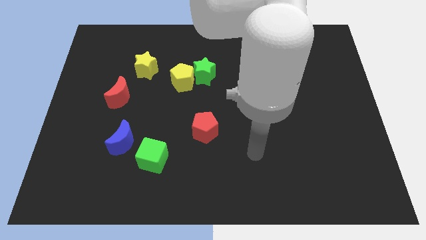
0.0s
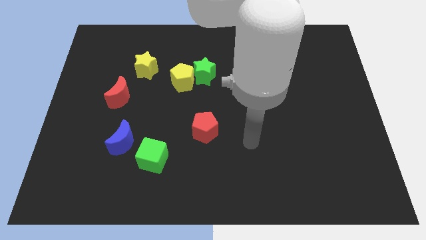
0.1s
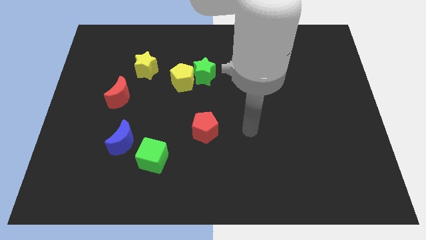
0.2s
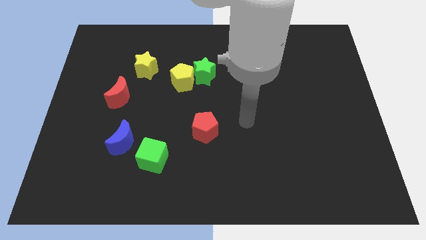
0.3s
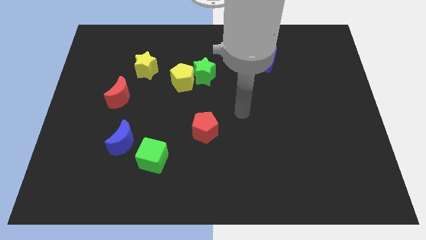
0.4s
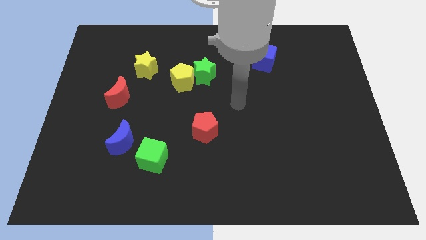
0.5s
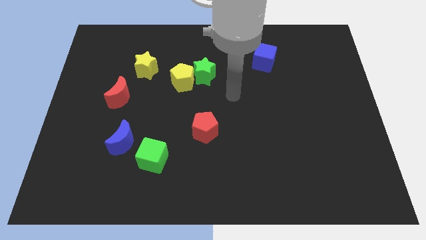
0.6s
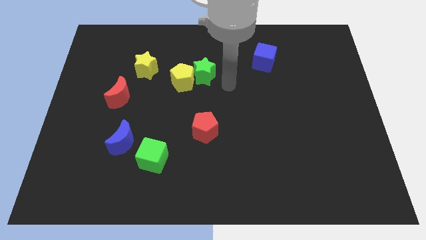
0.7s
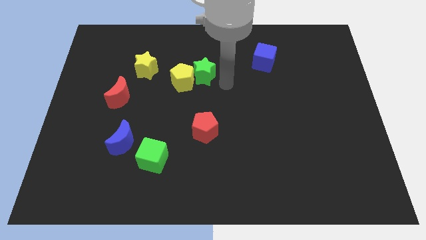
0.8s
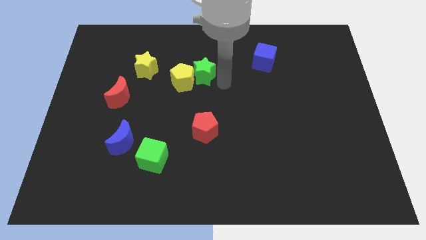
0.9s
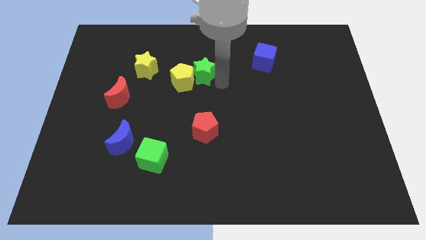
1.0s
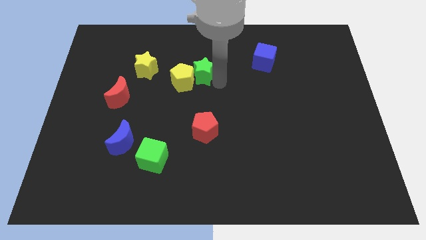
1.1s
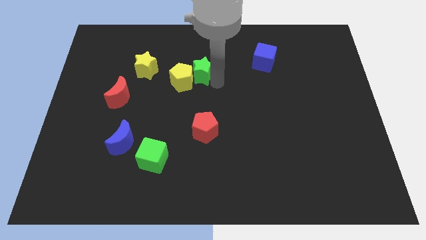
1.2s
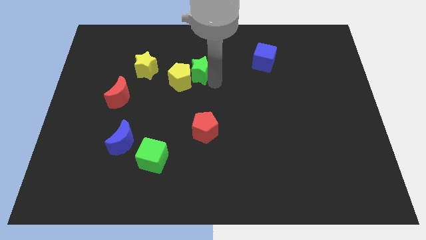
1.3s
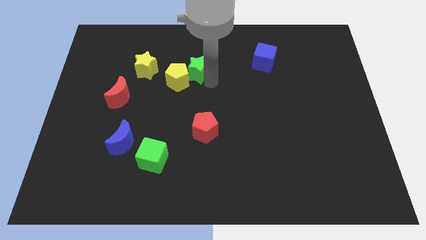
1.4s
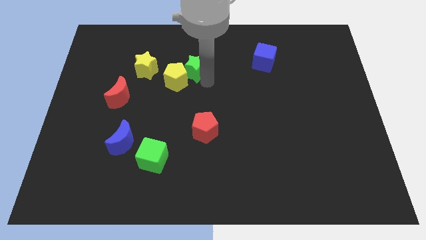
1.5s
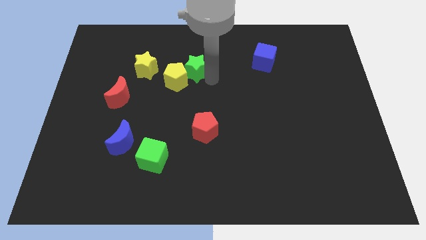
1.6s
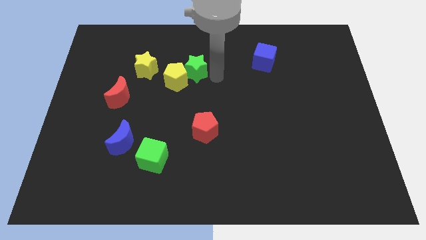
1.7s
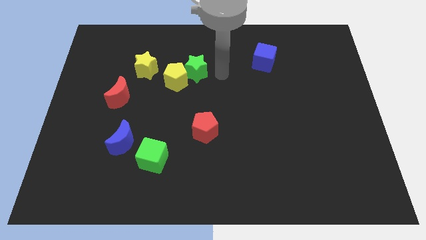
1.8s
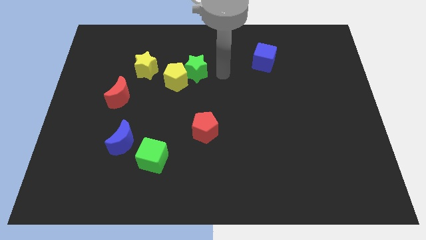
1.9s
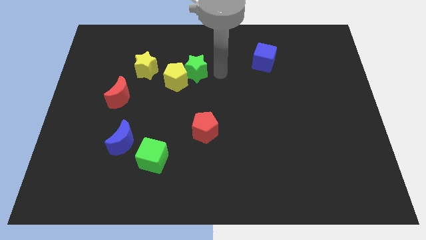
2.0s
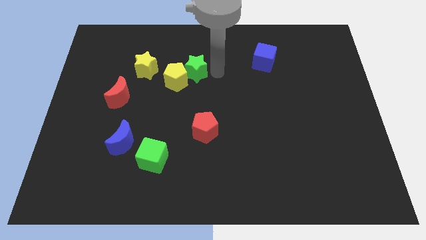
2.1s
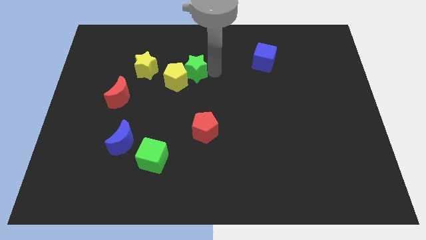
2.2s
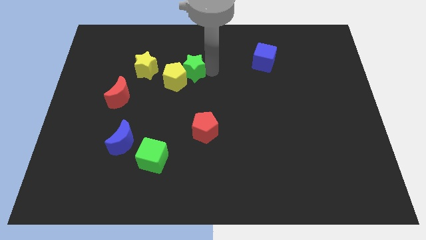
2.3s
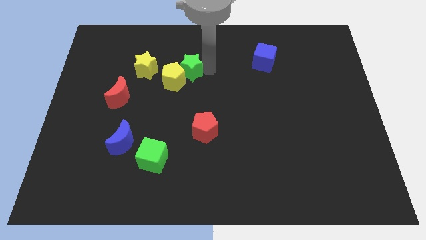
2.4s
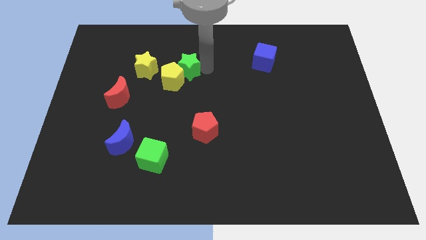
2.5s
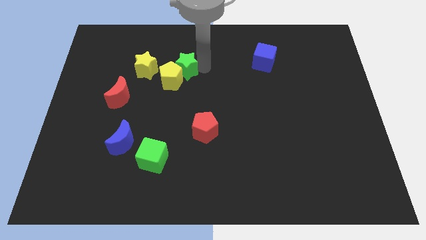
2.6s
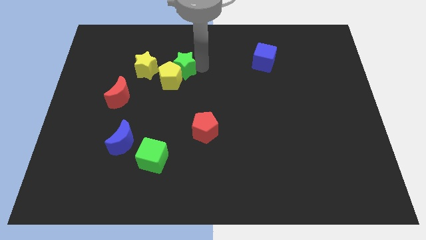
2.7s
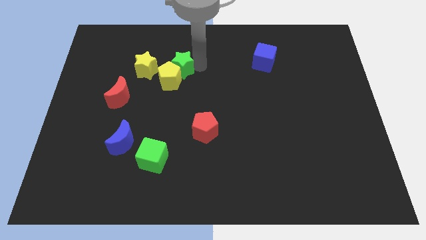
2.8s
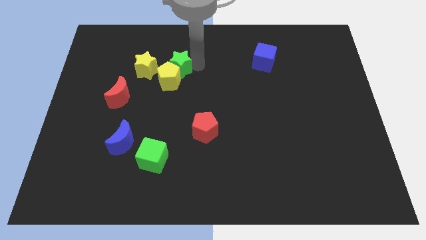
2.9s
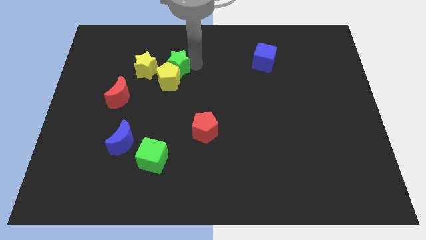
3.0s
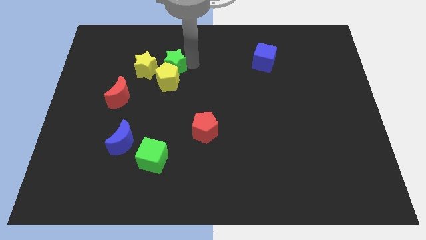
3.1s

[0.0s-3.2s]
push the green star left a little

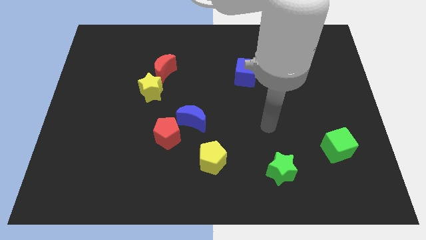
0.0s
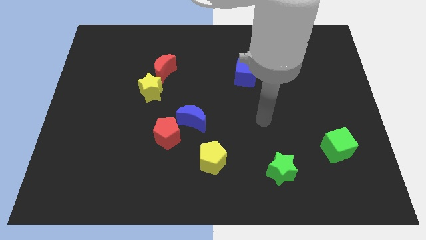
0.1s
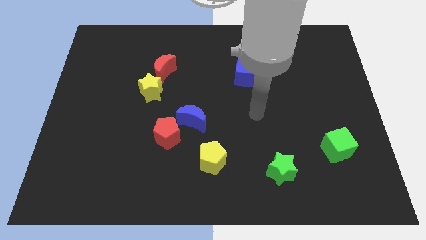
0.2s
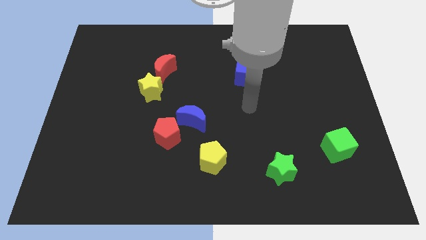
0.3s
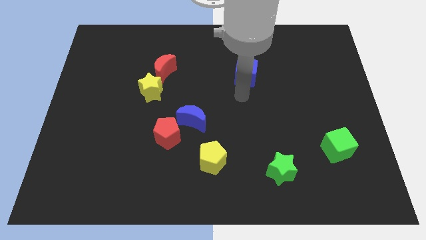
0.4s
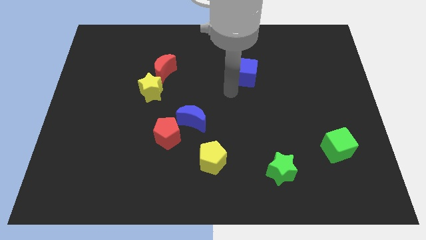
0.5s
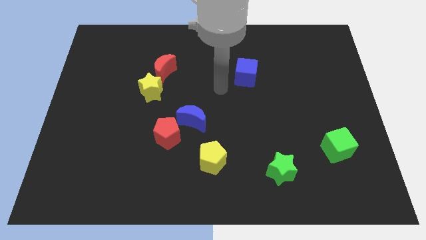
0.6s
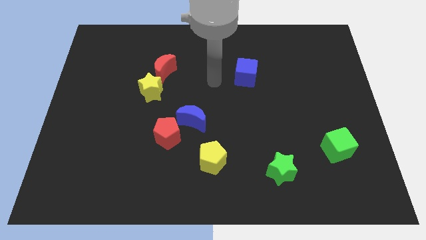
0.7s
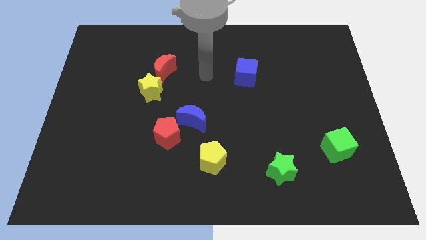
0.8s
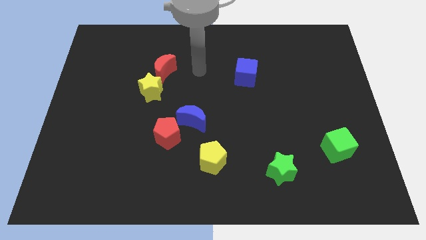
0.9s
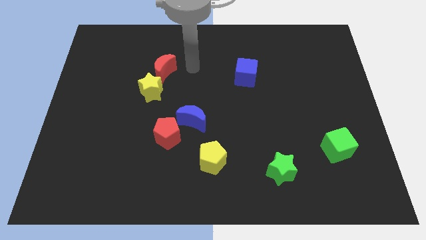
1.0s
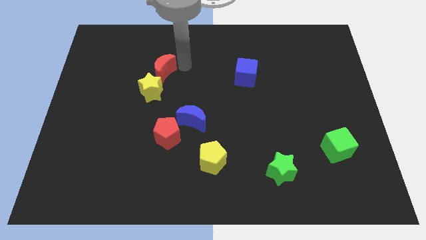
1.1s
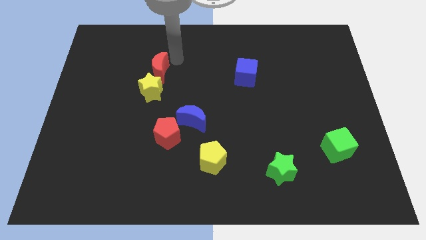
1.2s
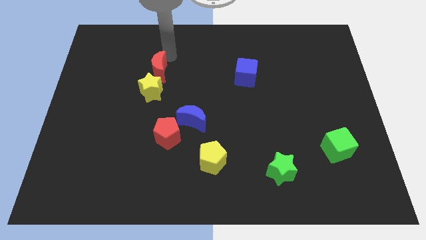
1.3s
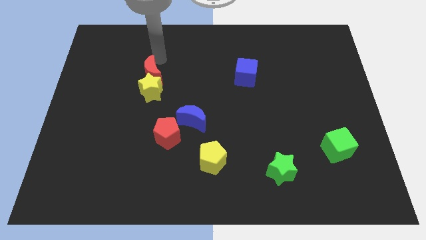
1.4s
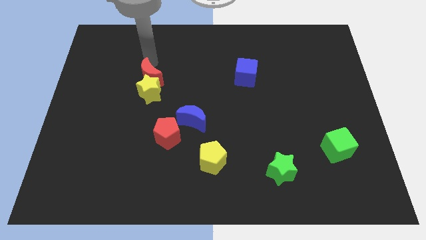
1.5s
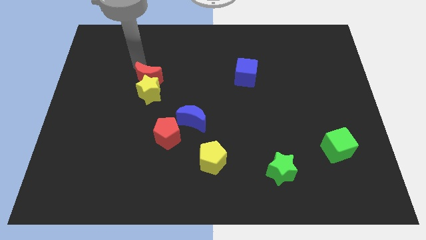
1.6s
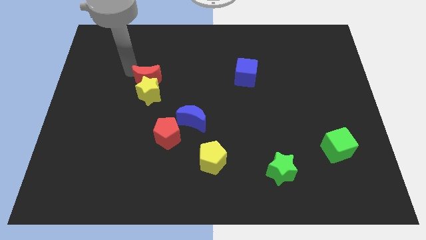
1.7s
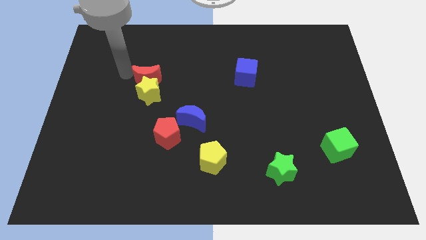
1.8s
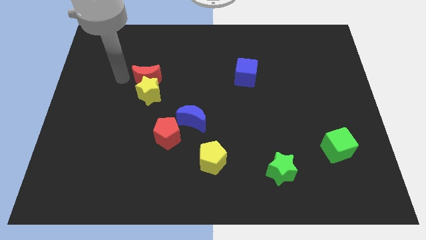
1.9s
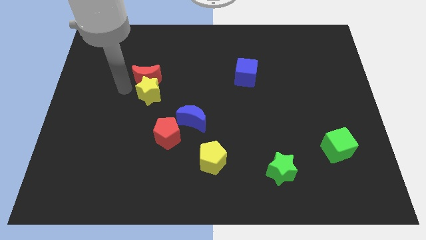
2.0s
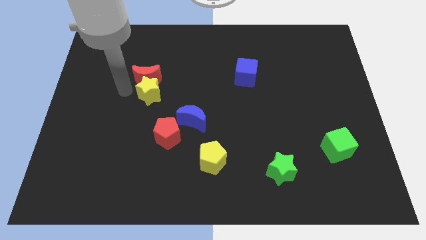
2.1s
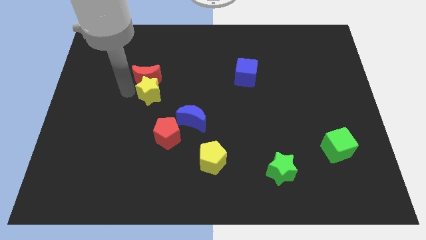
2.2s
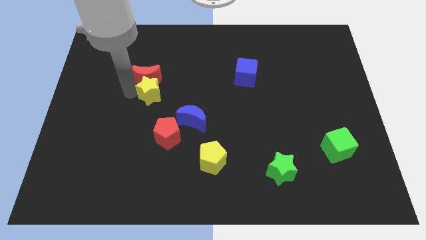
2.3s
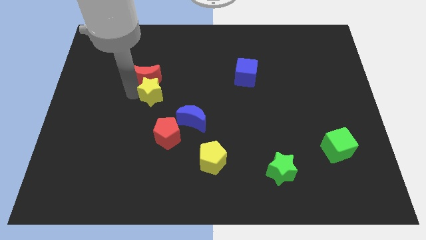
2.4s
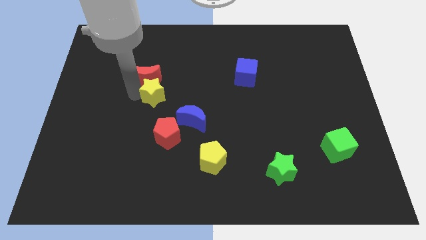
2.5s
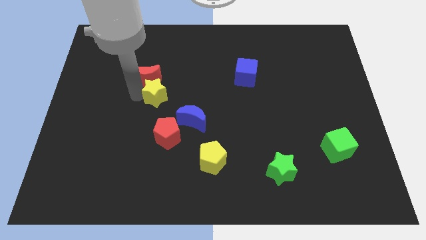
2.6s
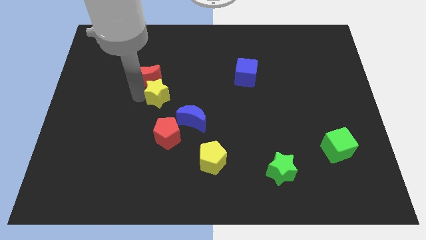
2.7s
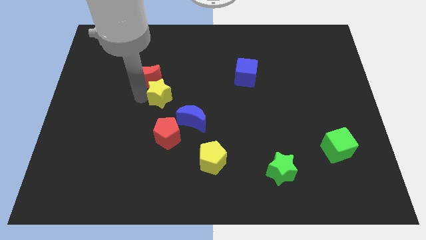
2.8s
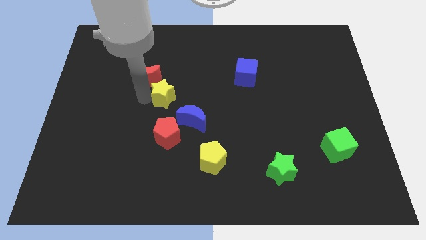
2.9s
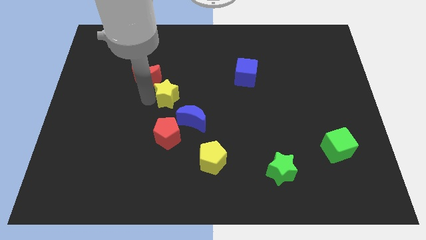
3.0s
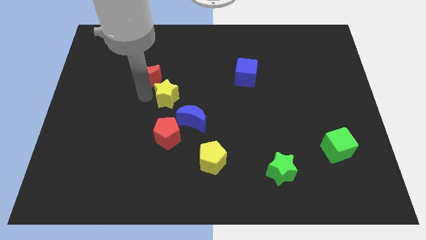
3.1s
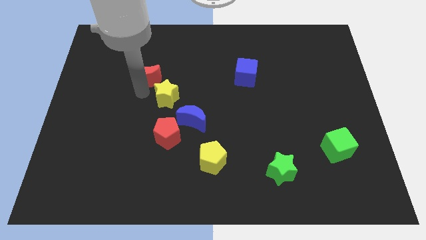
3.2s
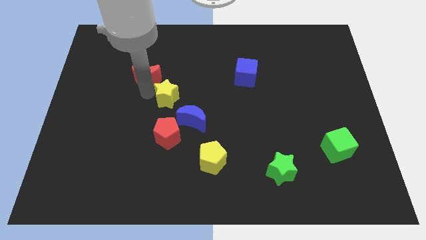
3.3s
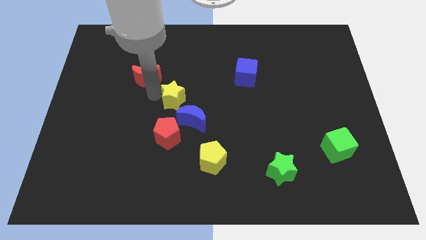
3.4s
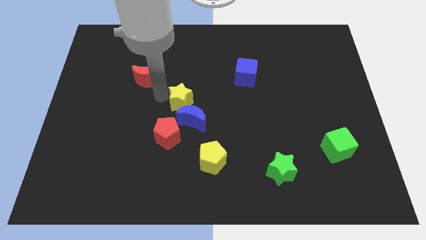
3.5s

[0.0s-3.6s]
move the yellow star a little bit downwards and right diagonally

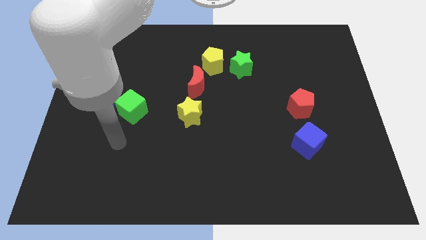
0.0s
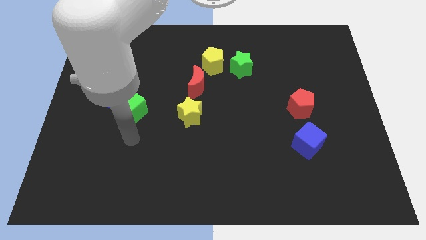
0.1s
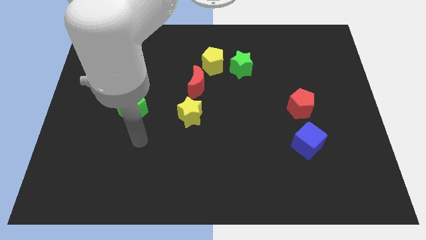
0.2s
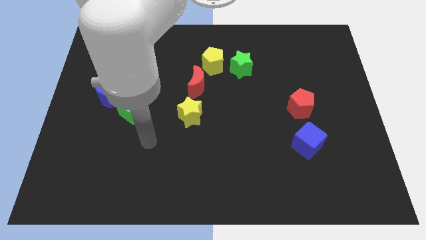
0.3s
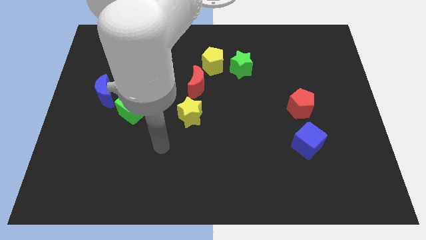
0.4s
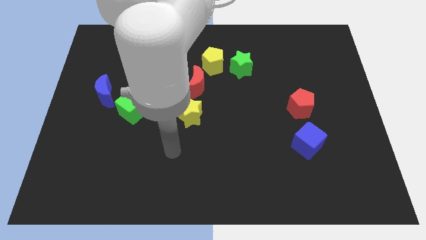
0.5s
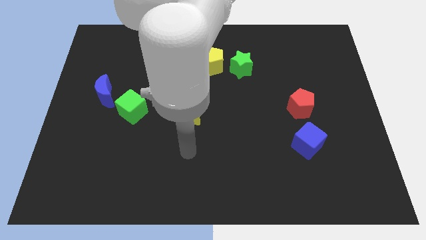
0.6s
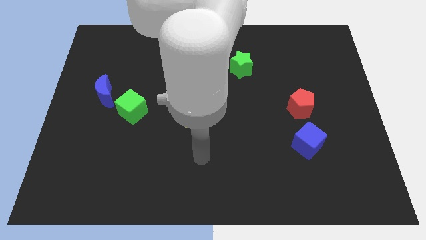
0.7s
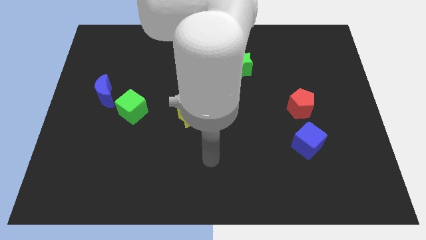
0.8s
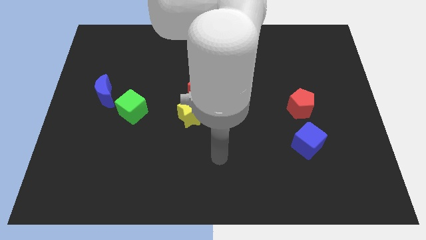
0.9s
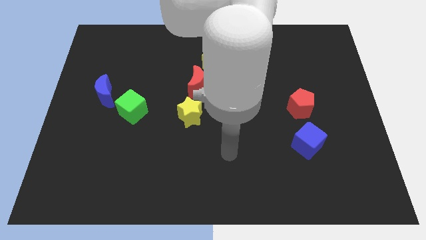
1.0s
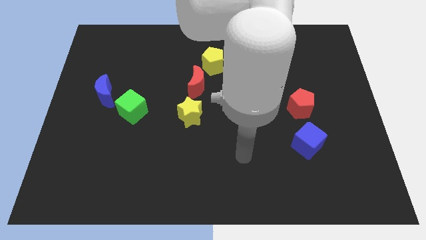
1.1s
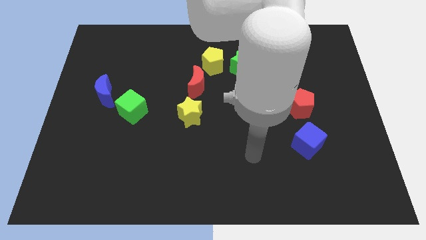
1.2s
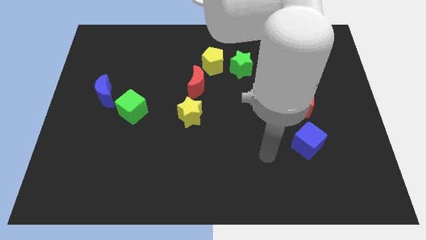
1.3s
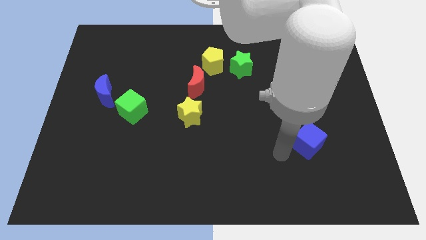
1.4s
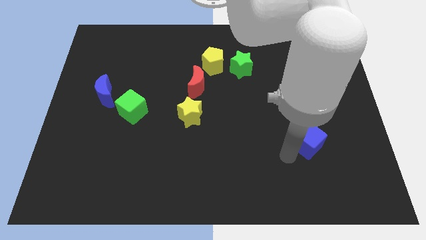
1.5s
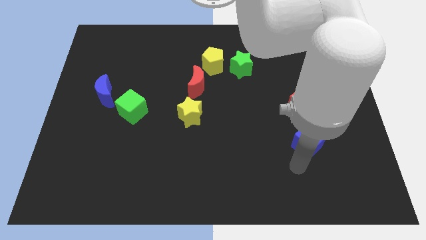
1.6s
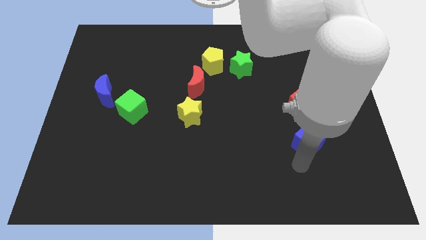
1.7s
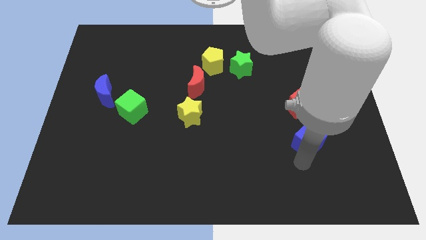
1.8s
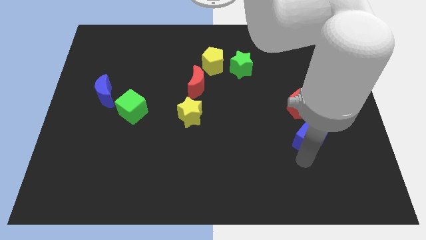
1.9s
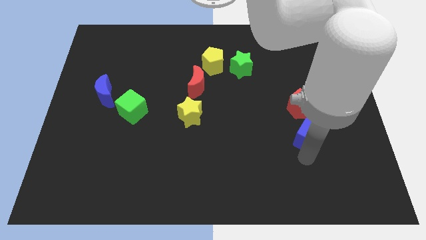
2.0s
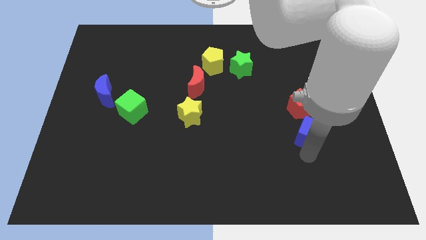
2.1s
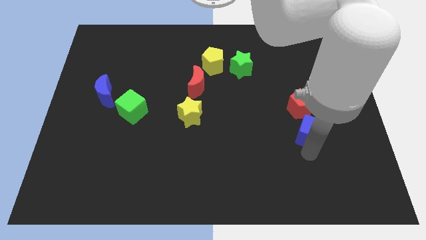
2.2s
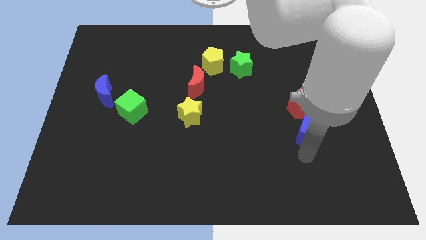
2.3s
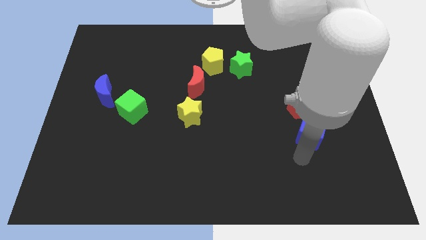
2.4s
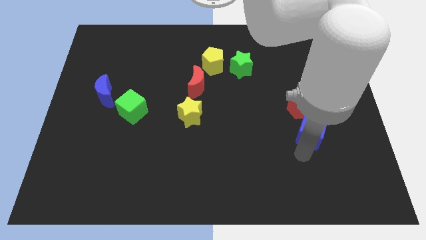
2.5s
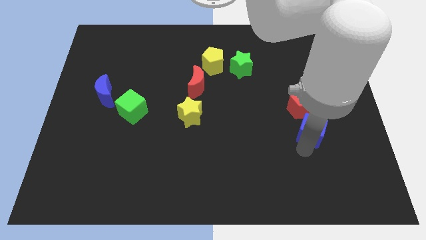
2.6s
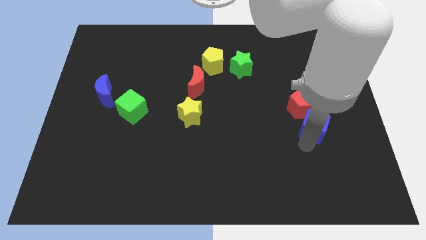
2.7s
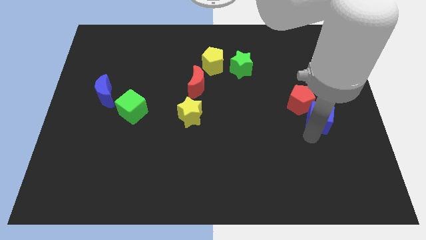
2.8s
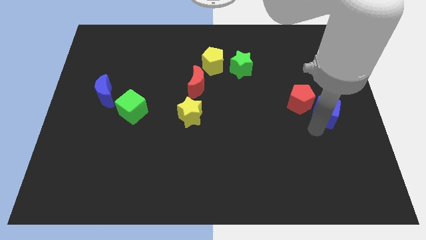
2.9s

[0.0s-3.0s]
push the blue cube somewhat up
